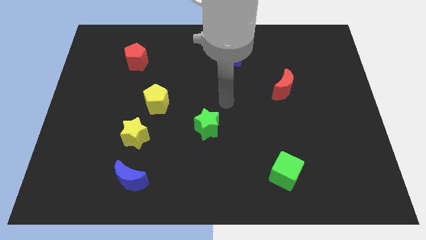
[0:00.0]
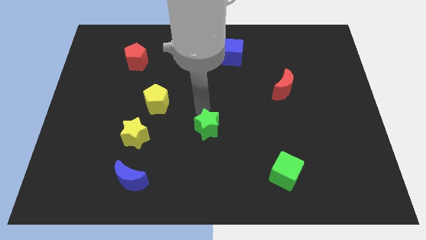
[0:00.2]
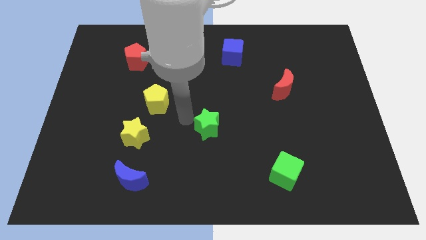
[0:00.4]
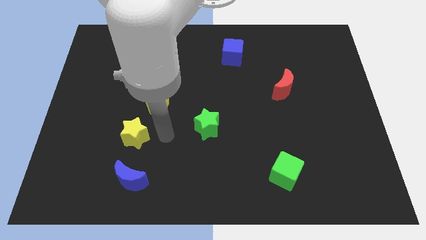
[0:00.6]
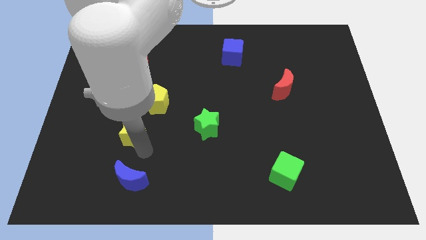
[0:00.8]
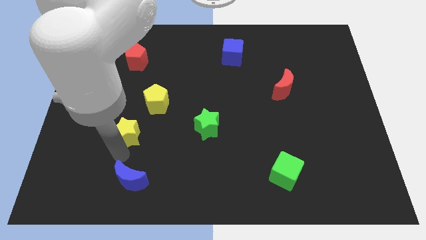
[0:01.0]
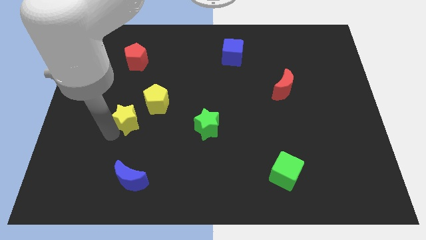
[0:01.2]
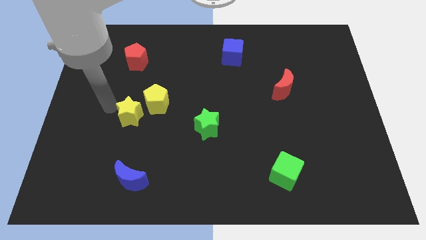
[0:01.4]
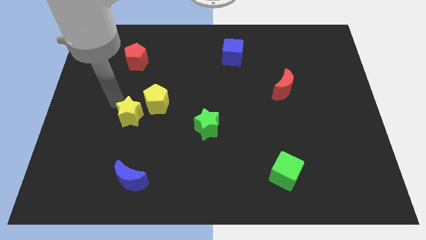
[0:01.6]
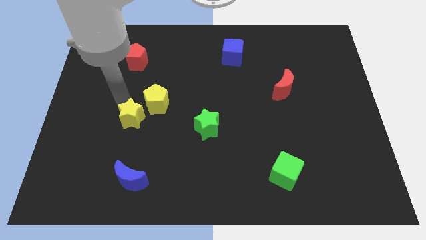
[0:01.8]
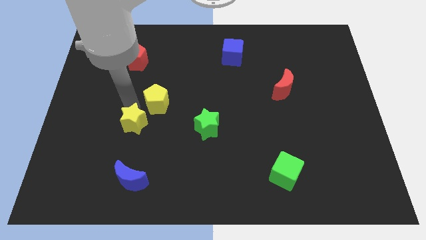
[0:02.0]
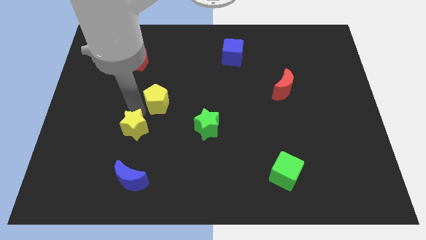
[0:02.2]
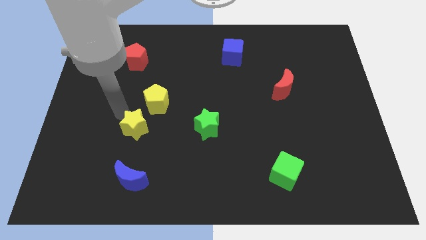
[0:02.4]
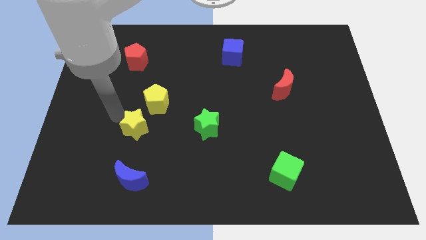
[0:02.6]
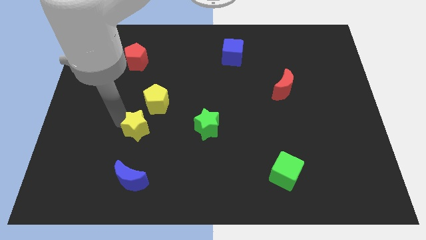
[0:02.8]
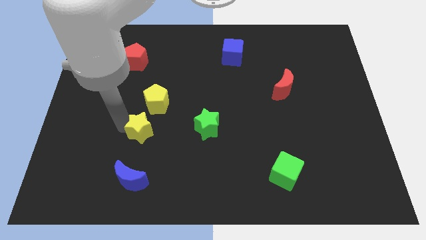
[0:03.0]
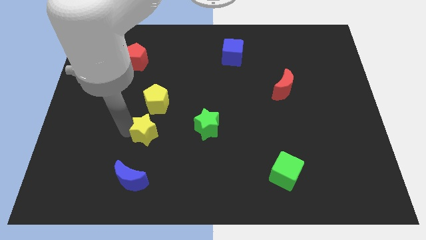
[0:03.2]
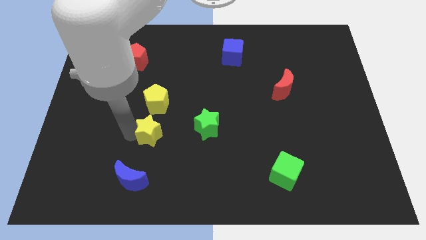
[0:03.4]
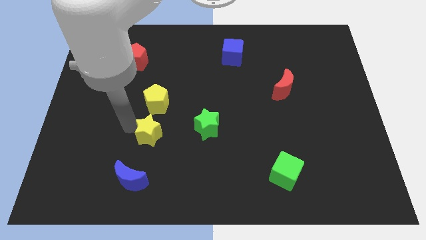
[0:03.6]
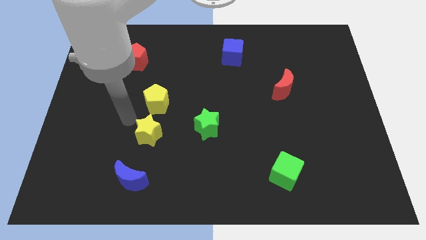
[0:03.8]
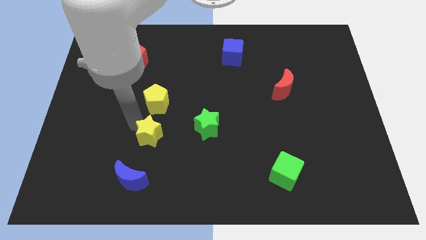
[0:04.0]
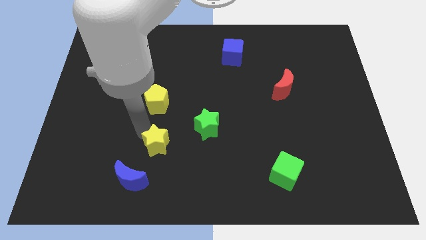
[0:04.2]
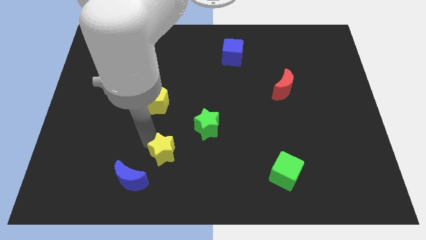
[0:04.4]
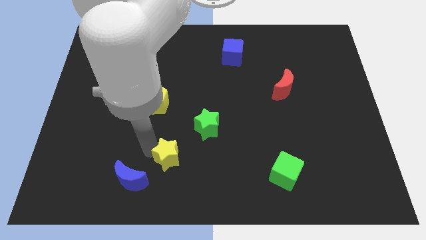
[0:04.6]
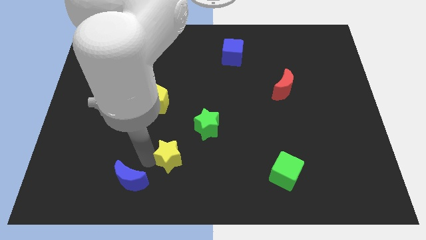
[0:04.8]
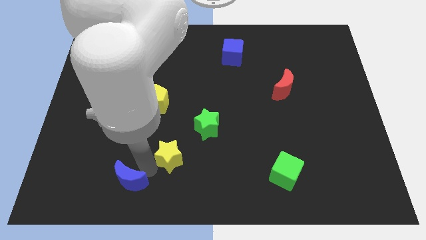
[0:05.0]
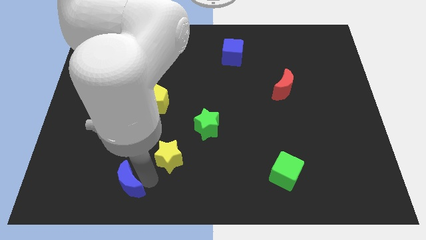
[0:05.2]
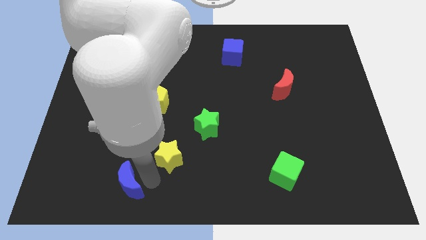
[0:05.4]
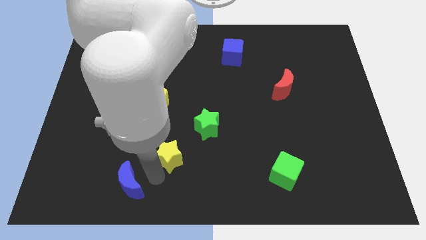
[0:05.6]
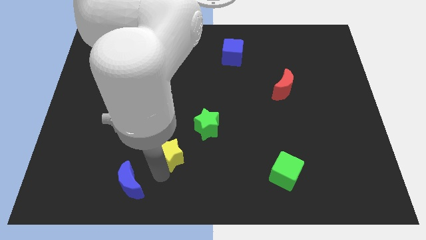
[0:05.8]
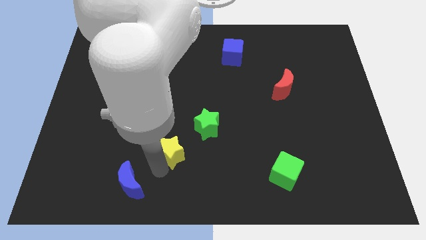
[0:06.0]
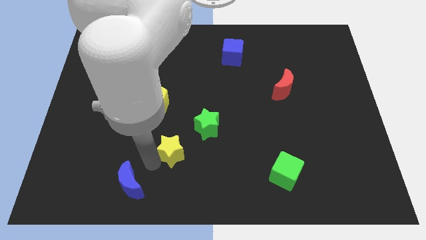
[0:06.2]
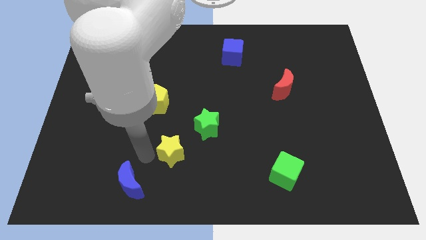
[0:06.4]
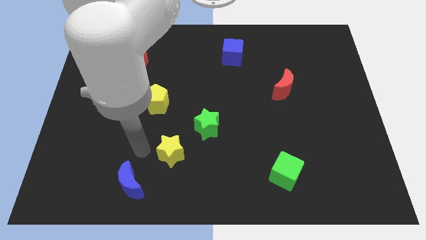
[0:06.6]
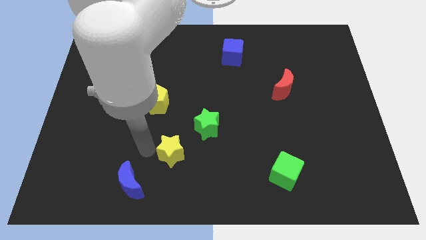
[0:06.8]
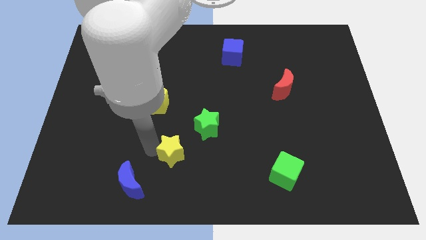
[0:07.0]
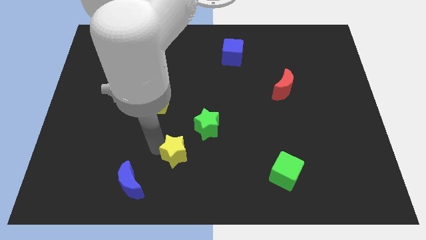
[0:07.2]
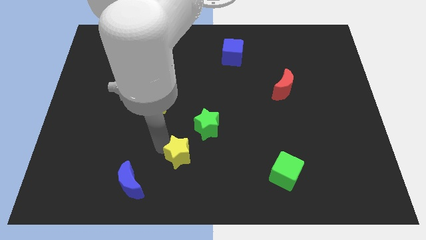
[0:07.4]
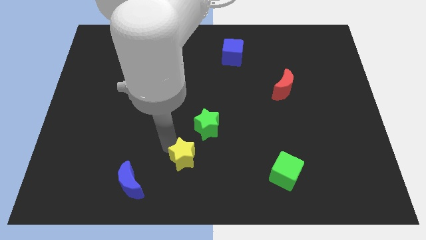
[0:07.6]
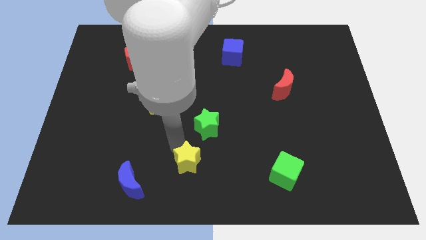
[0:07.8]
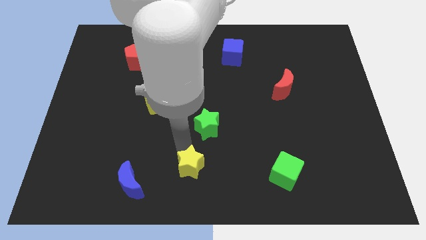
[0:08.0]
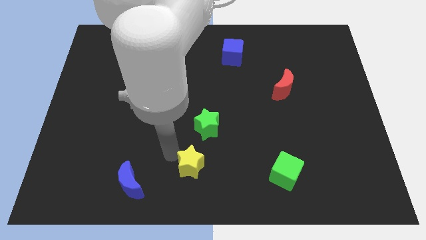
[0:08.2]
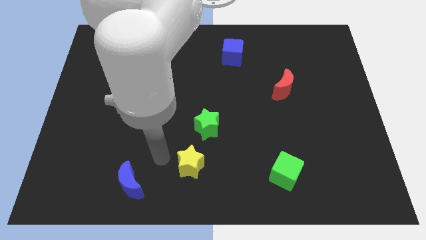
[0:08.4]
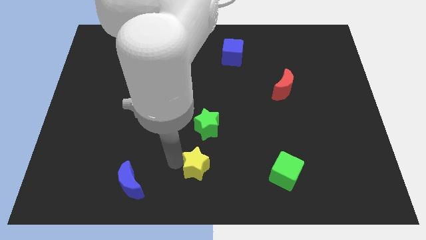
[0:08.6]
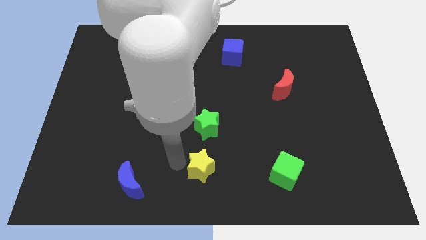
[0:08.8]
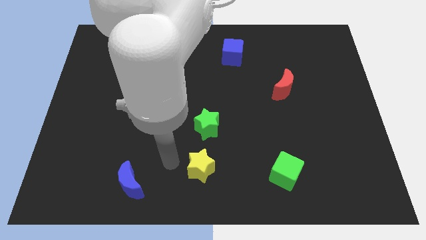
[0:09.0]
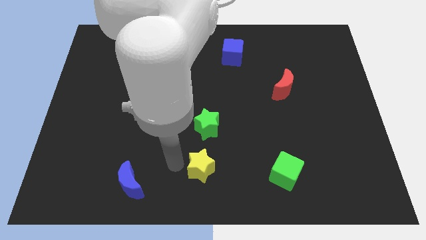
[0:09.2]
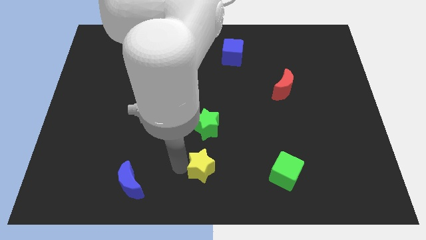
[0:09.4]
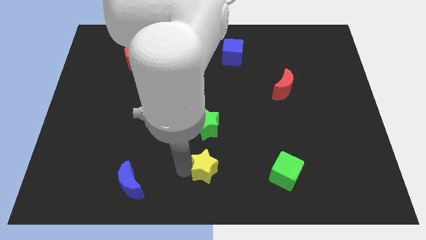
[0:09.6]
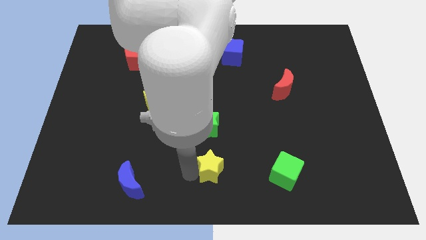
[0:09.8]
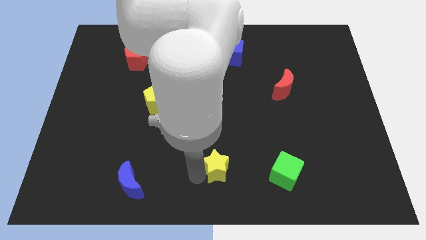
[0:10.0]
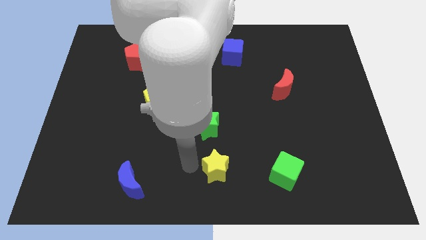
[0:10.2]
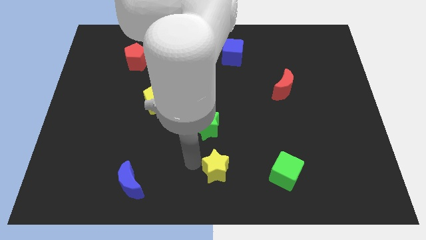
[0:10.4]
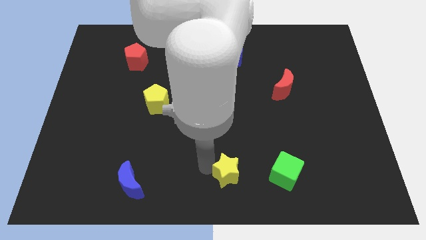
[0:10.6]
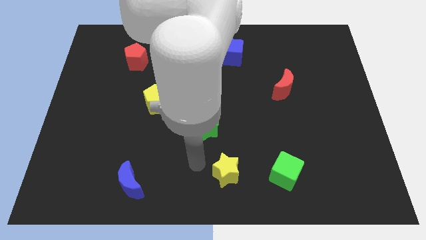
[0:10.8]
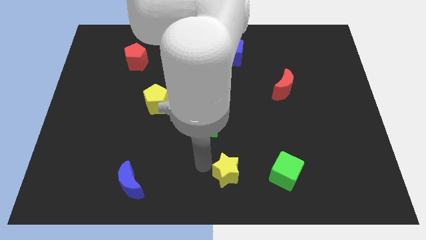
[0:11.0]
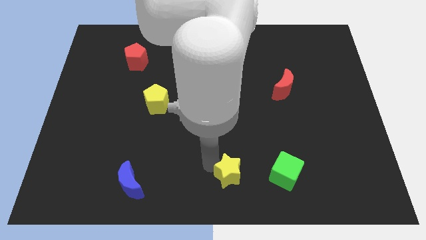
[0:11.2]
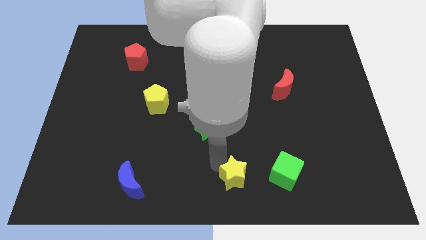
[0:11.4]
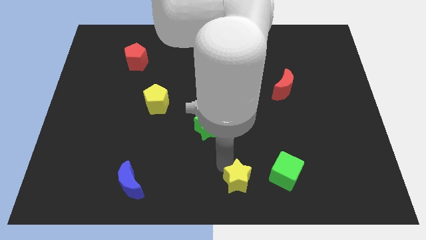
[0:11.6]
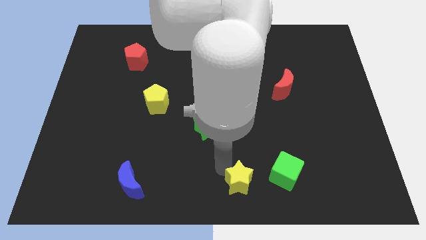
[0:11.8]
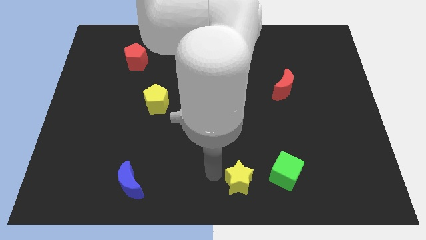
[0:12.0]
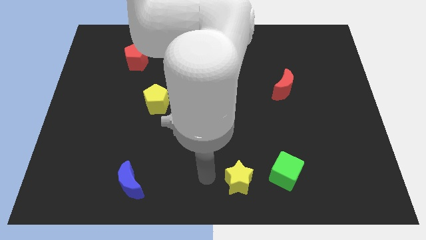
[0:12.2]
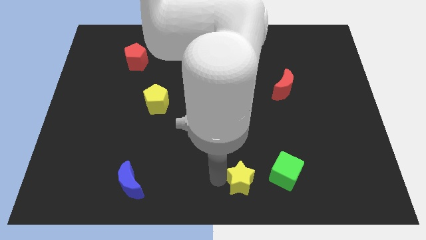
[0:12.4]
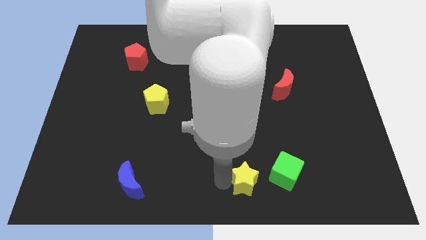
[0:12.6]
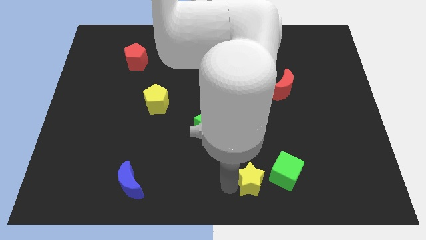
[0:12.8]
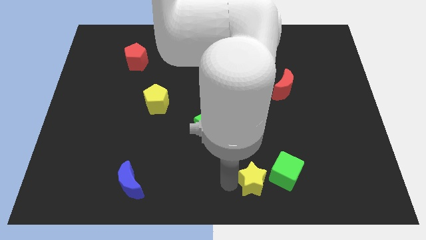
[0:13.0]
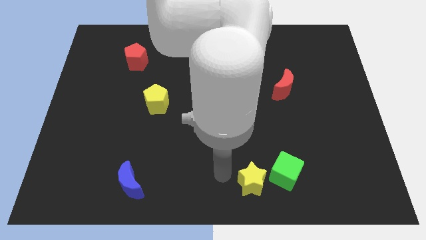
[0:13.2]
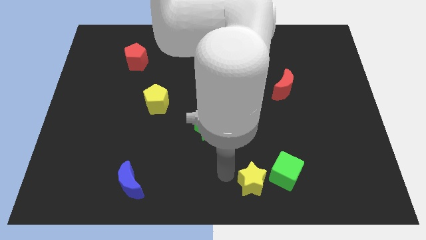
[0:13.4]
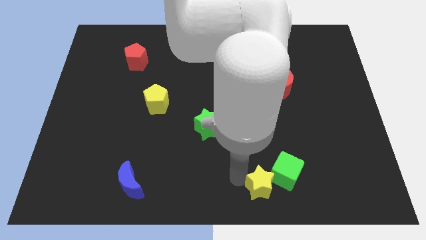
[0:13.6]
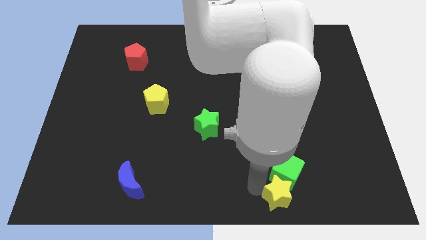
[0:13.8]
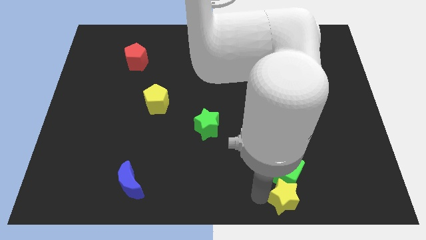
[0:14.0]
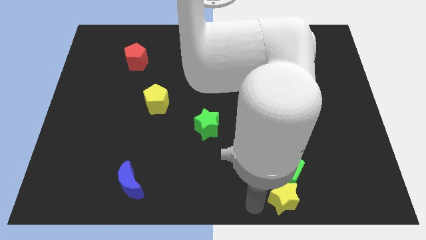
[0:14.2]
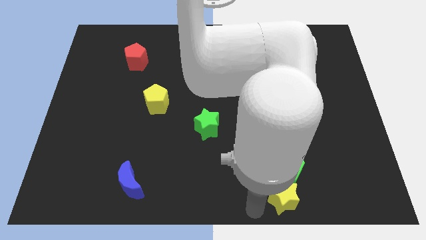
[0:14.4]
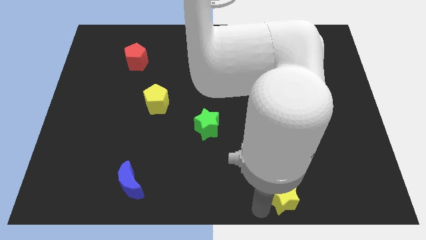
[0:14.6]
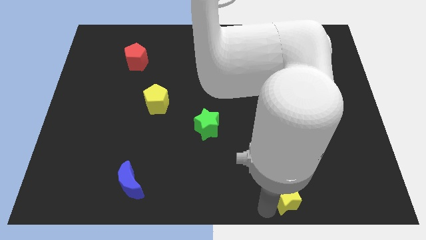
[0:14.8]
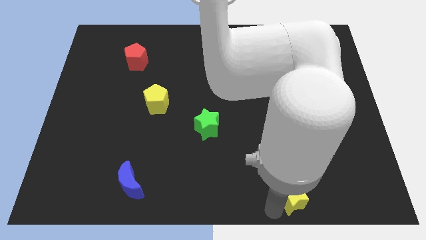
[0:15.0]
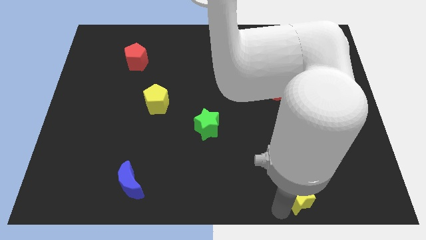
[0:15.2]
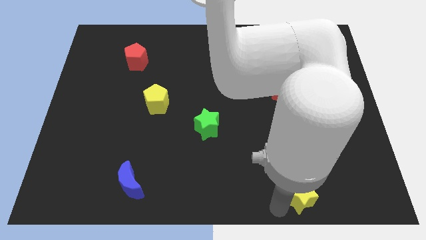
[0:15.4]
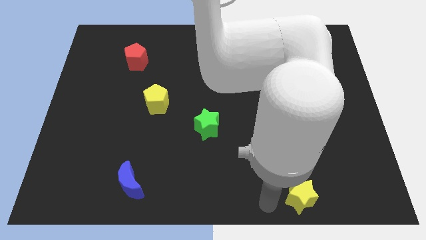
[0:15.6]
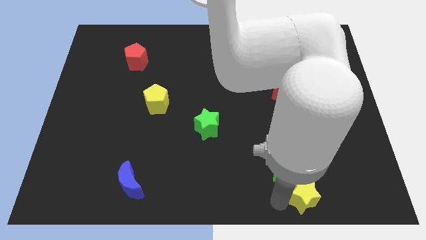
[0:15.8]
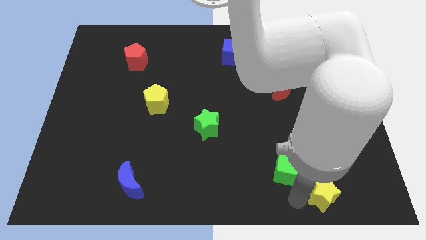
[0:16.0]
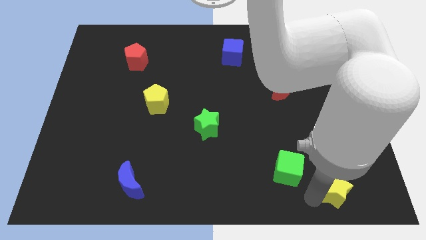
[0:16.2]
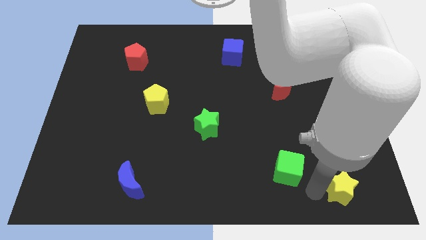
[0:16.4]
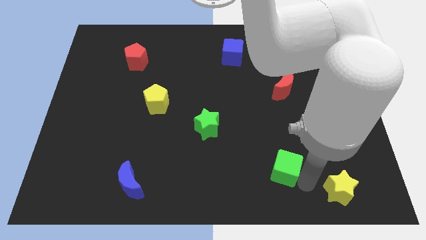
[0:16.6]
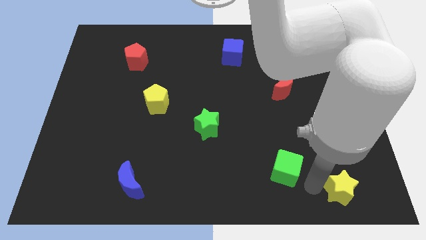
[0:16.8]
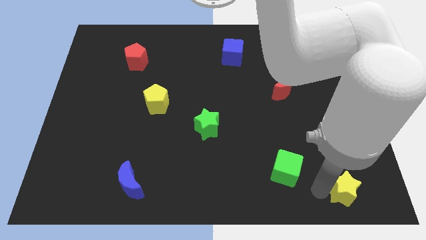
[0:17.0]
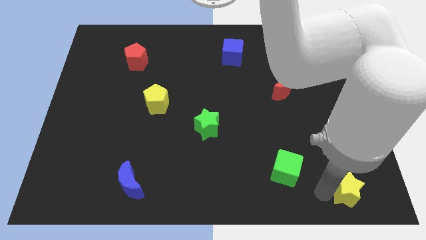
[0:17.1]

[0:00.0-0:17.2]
slide the yellow star to the bottom right of the board
